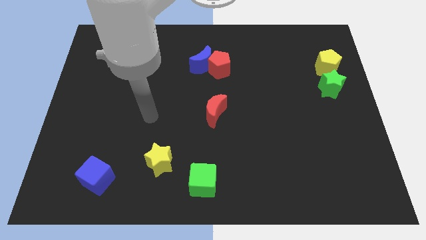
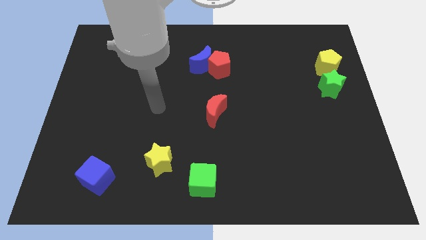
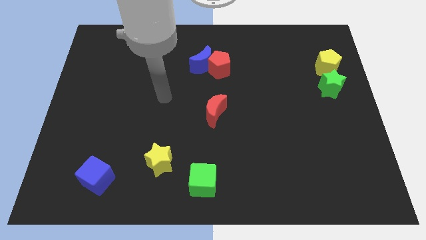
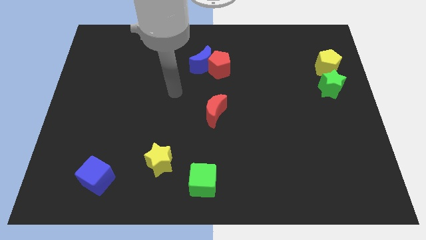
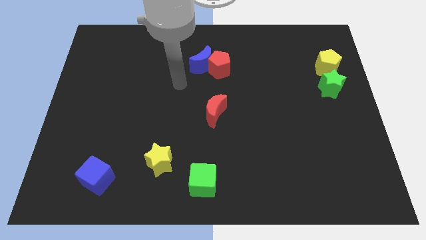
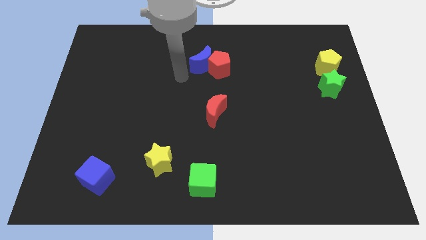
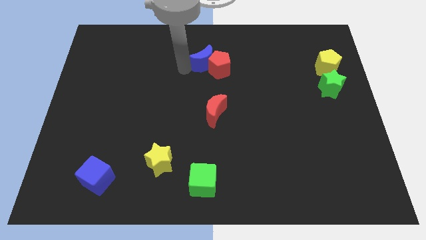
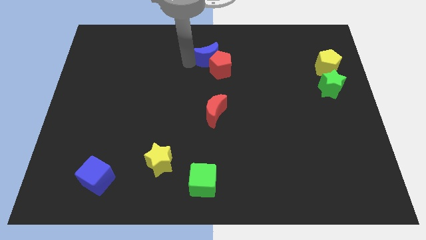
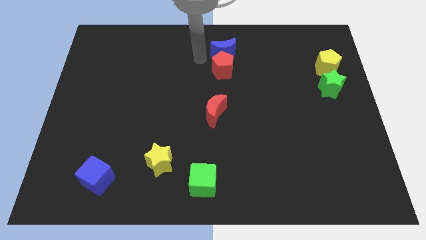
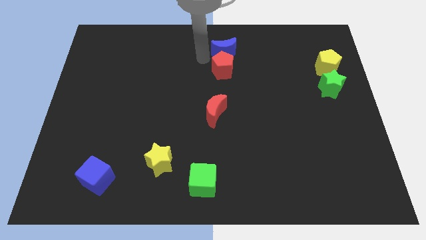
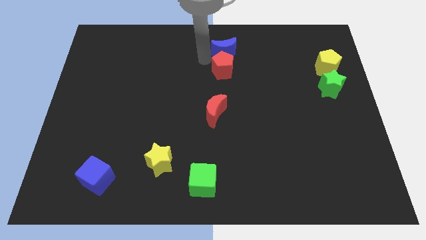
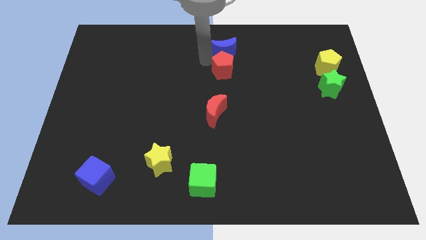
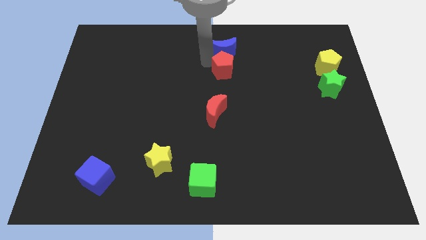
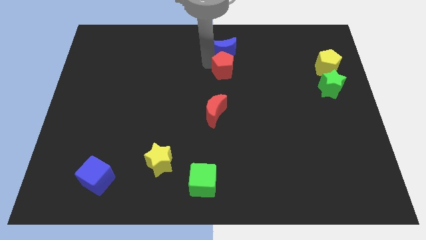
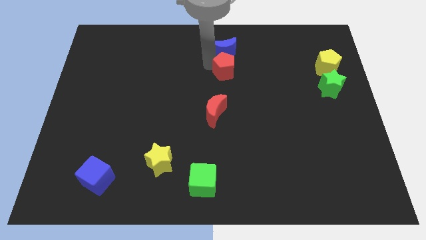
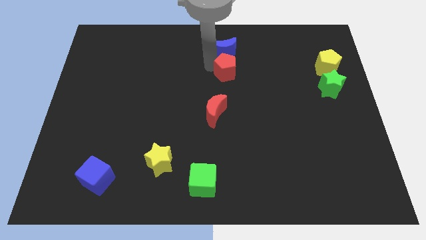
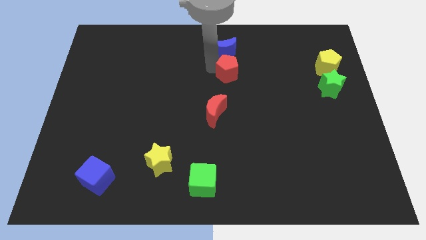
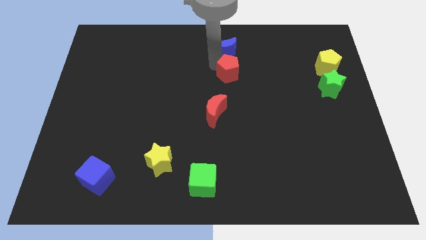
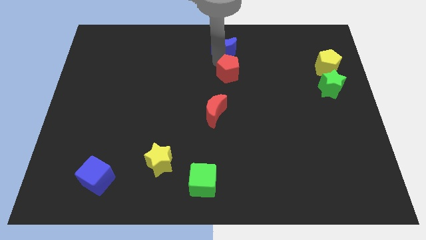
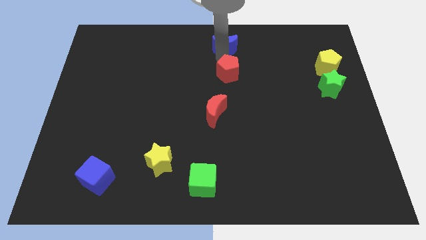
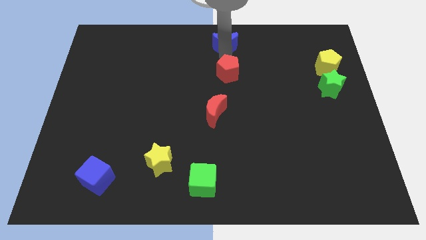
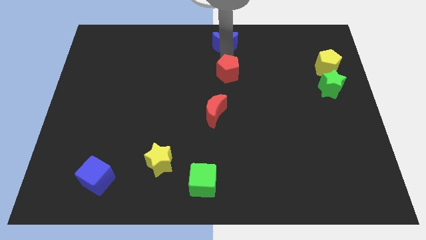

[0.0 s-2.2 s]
separate the red pentagon from the blue moon

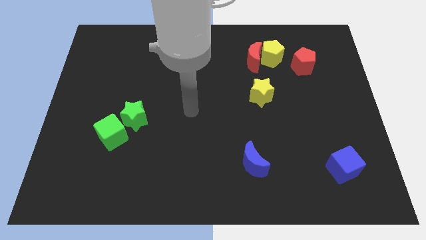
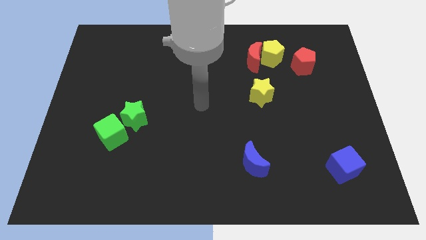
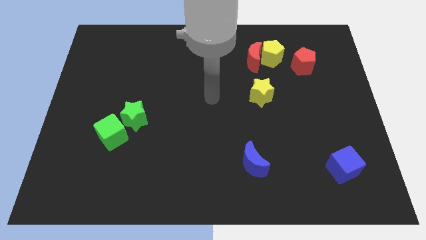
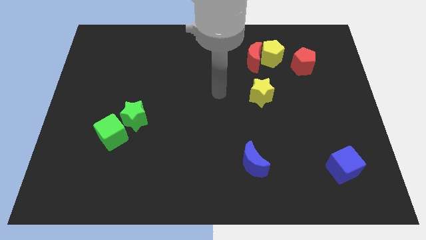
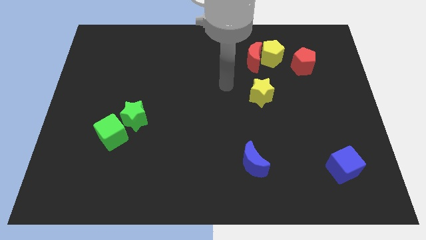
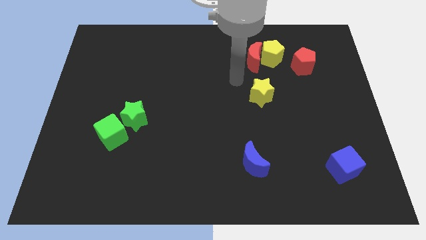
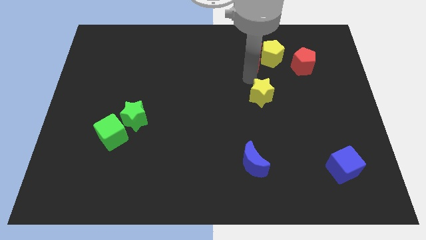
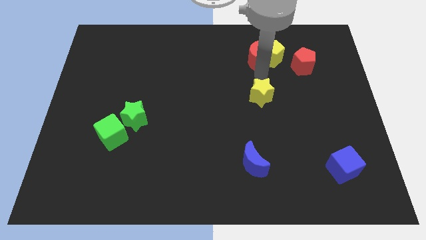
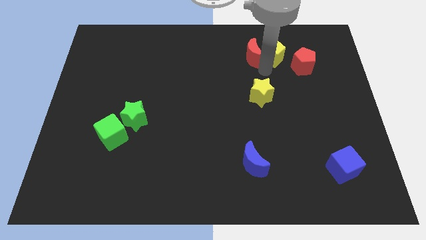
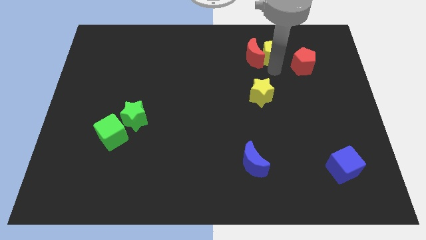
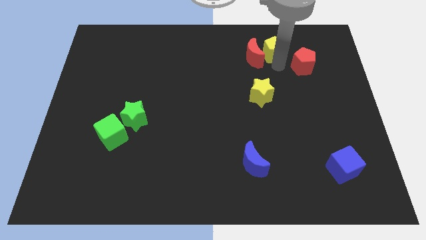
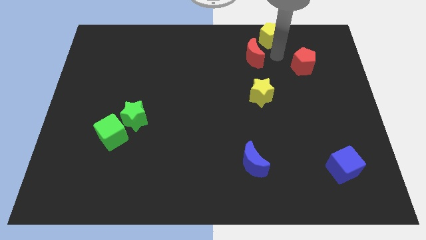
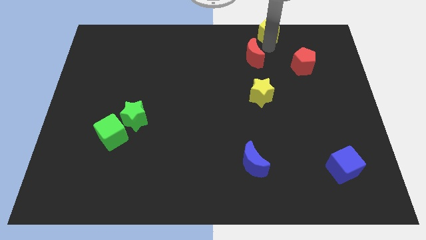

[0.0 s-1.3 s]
move the red moon away from the yellow pentagon

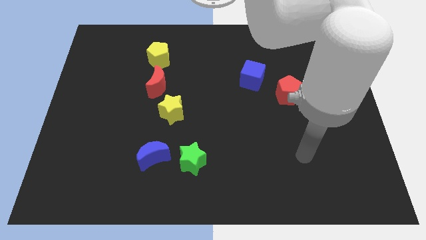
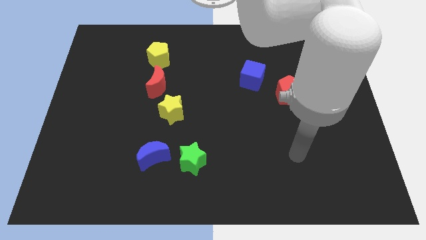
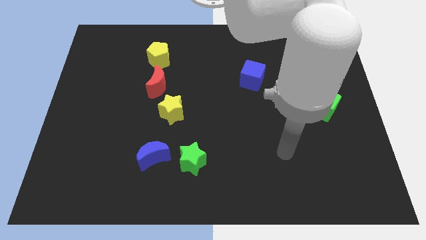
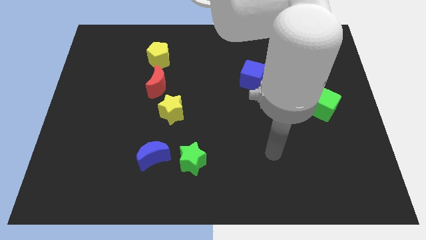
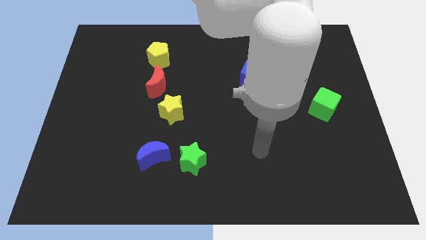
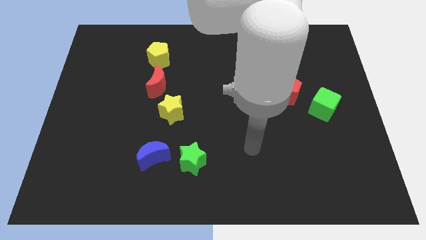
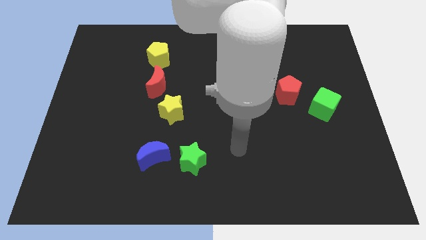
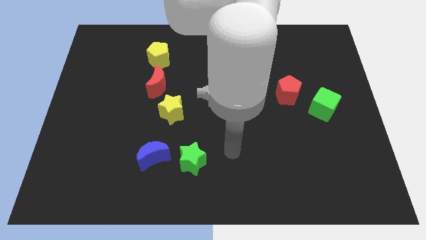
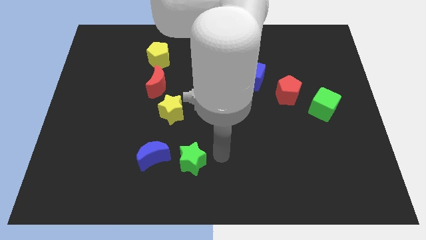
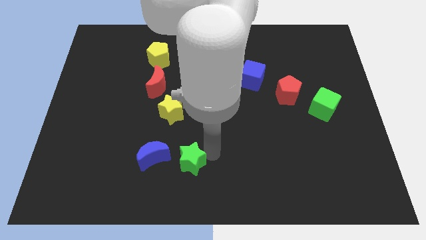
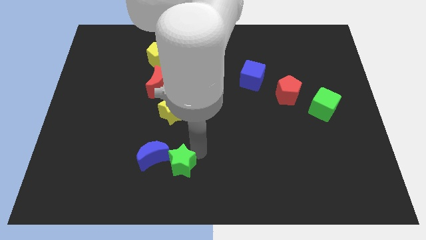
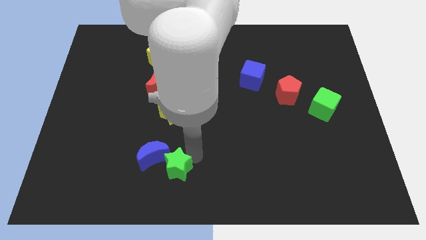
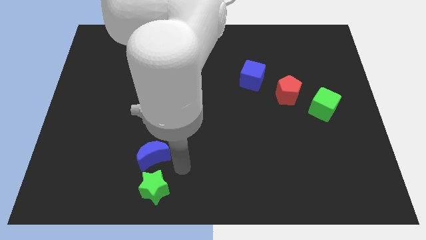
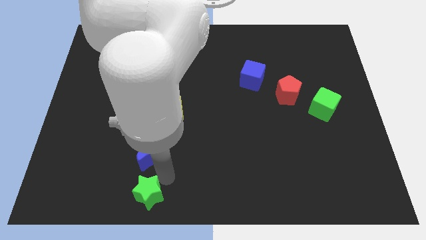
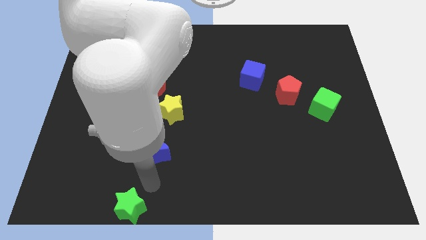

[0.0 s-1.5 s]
move the blue moon away from the green star

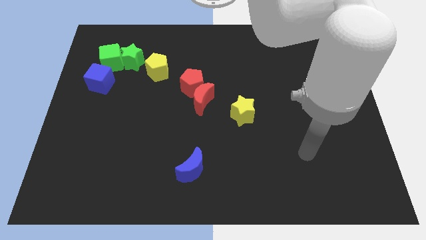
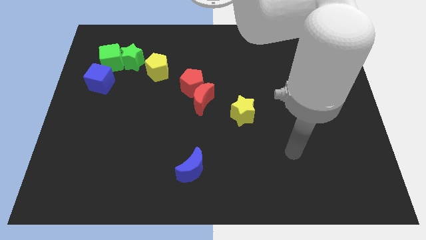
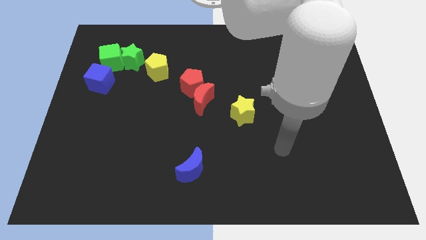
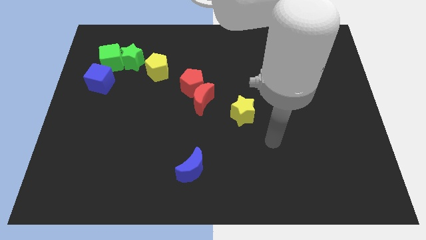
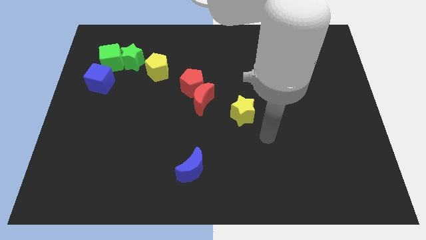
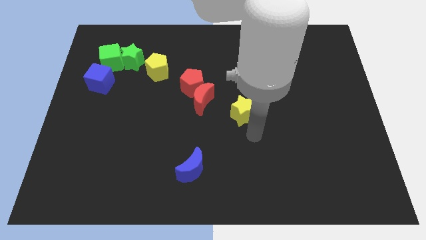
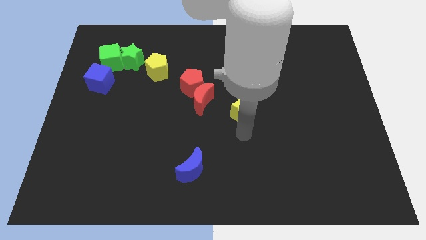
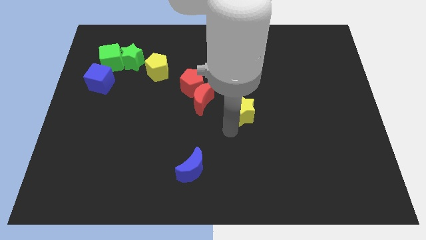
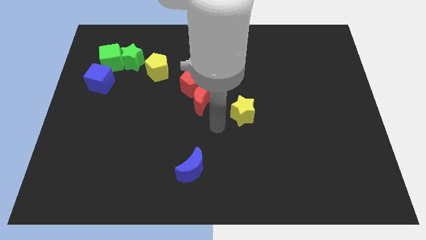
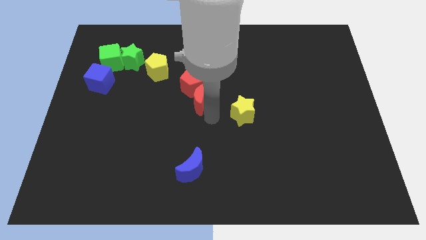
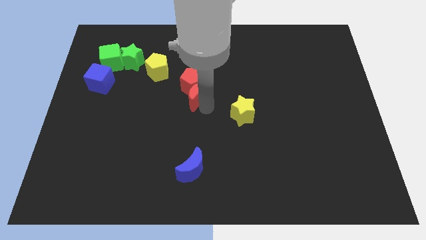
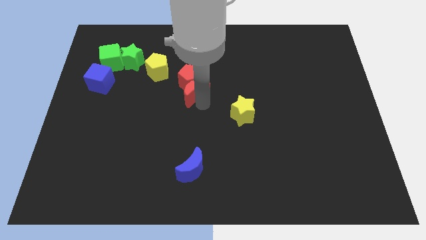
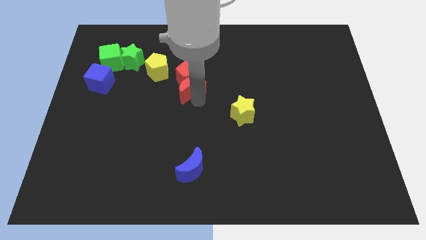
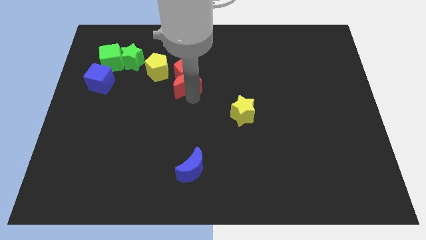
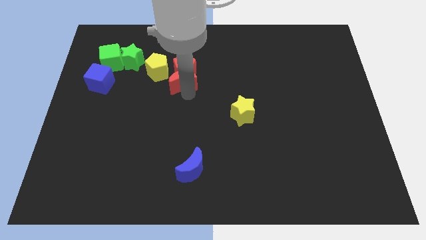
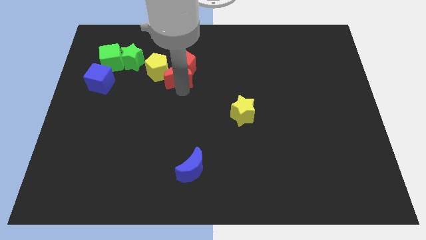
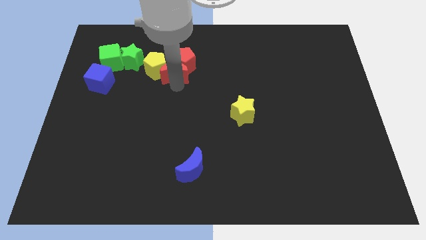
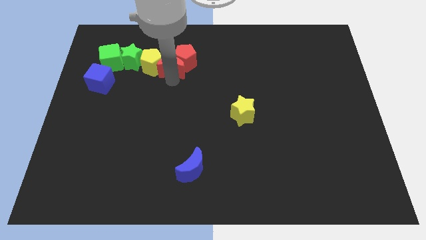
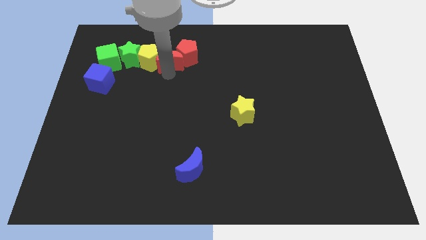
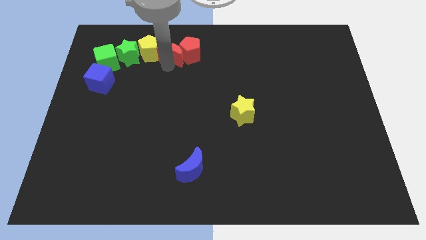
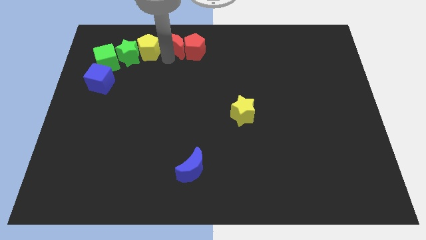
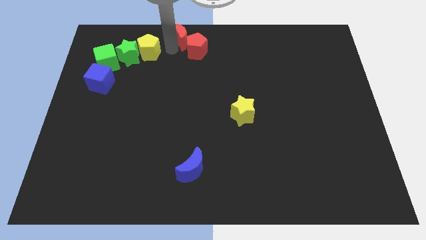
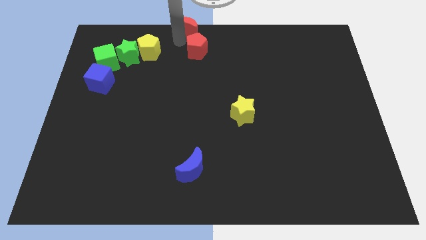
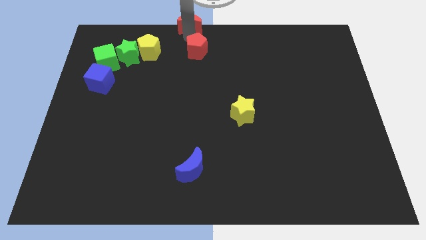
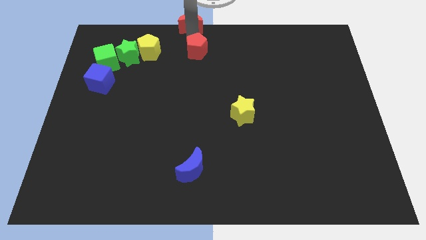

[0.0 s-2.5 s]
separate the red pentagon from the red moon

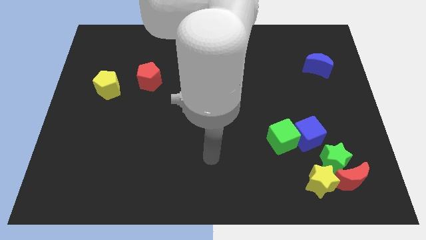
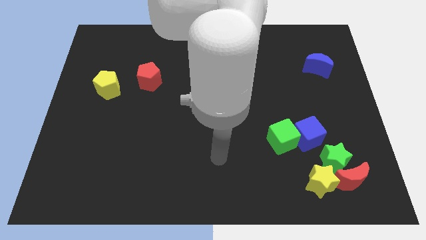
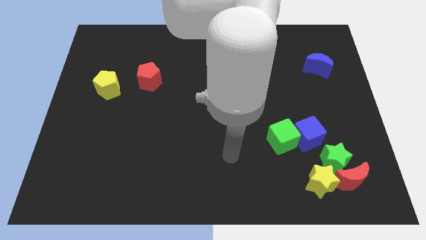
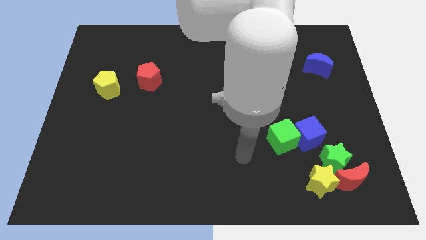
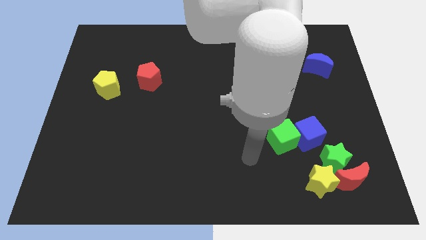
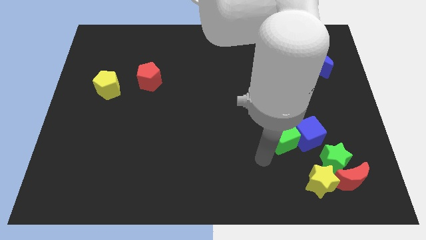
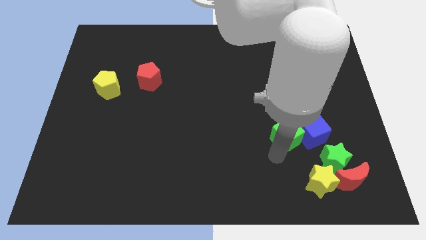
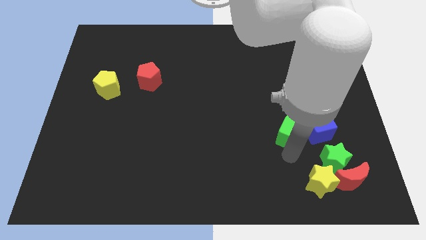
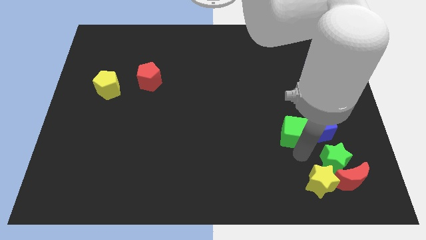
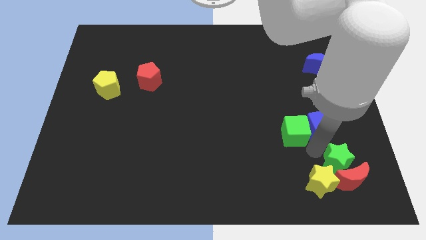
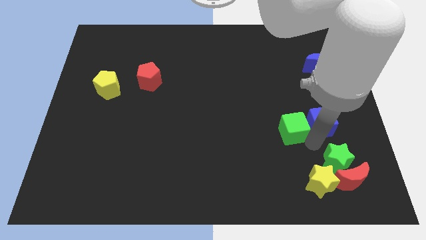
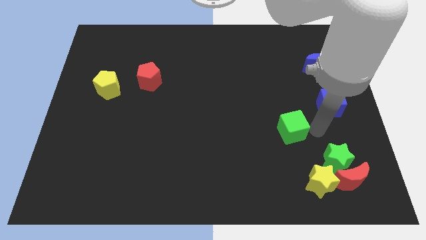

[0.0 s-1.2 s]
move the green cube away from the blue cube

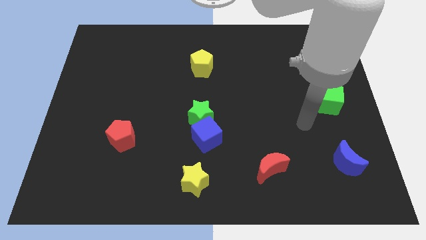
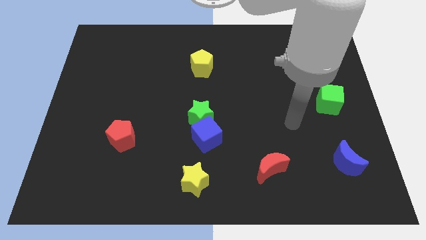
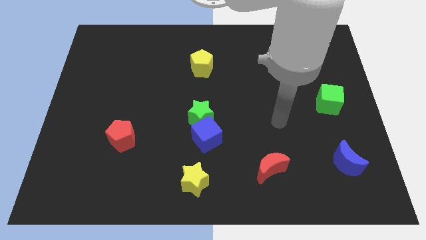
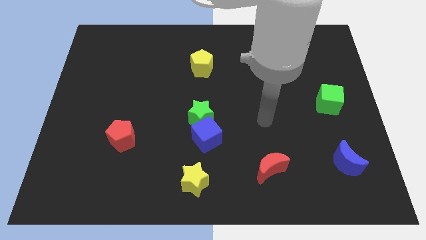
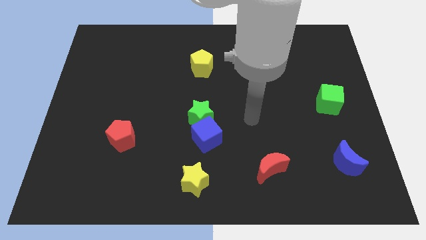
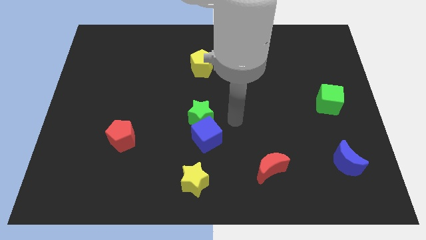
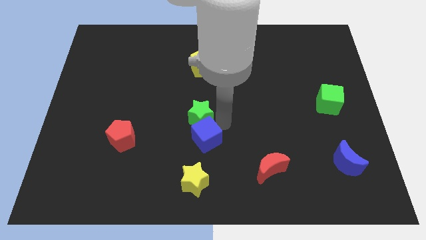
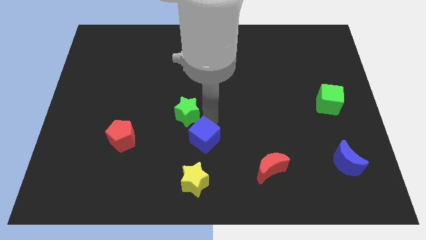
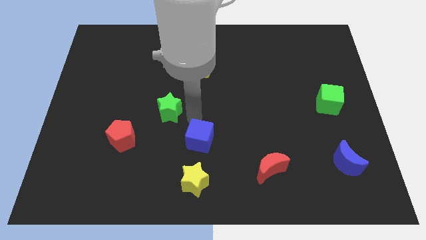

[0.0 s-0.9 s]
move the blue cube away from the green star
